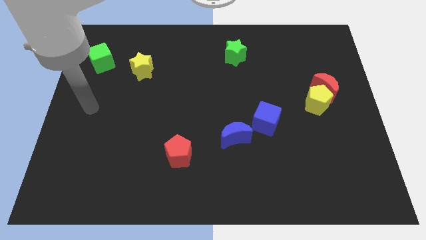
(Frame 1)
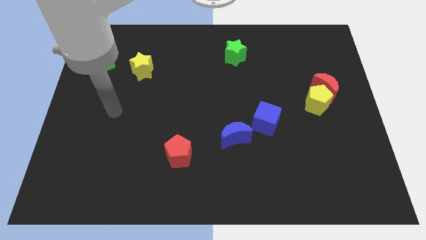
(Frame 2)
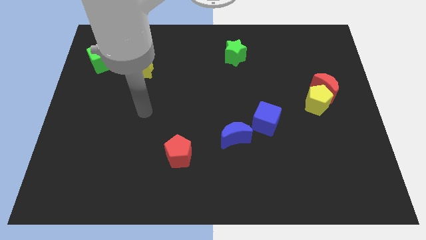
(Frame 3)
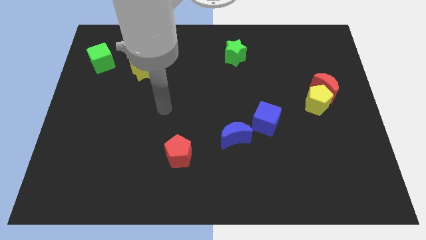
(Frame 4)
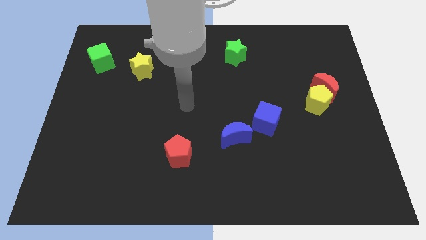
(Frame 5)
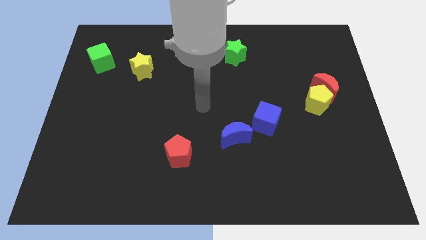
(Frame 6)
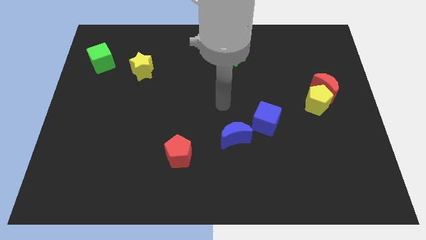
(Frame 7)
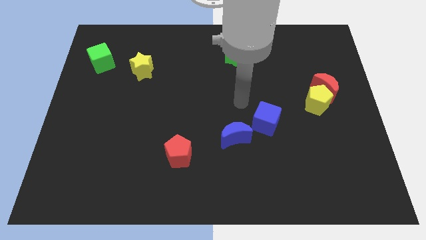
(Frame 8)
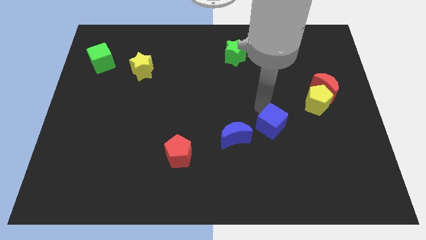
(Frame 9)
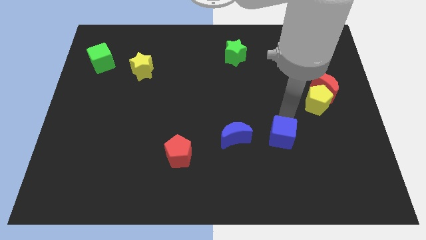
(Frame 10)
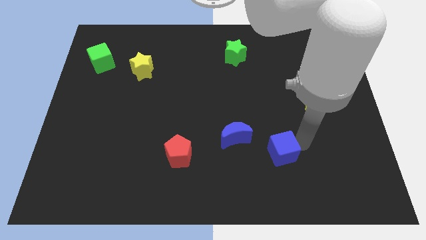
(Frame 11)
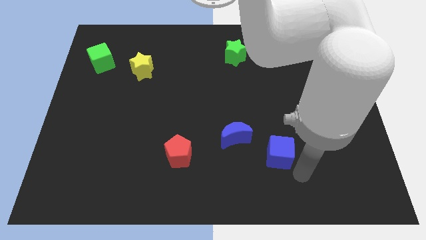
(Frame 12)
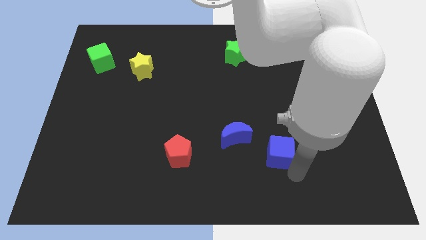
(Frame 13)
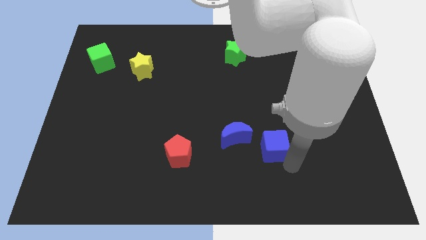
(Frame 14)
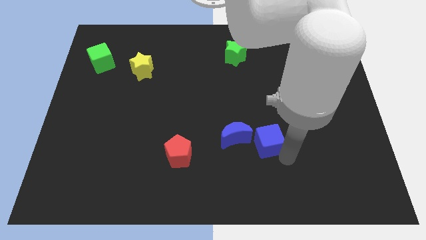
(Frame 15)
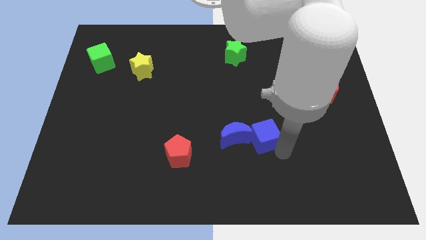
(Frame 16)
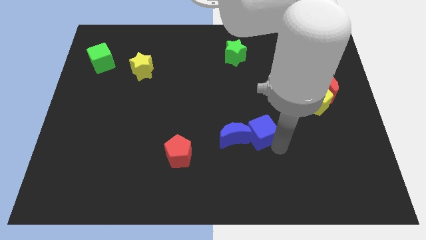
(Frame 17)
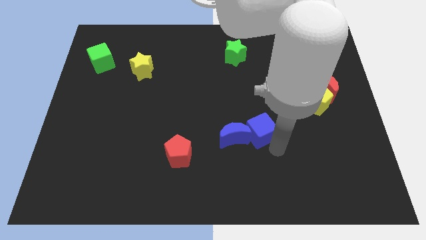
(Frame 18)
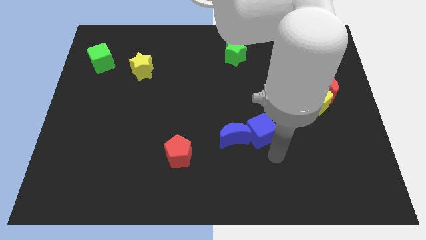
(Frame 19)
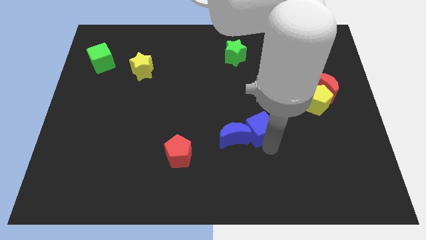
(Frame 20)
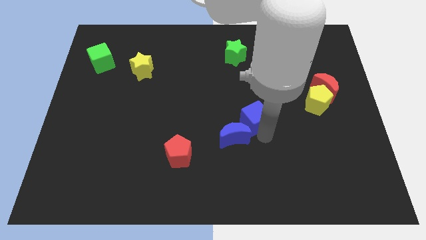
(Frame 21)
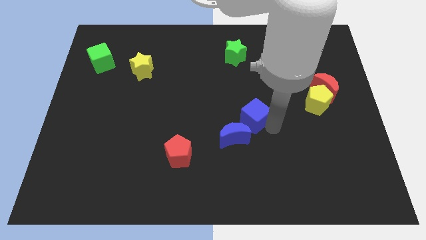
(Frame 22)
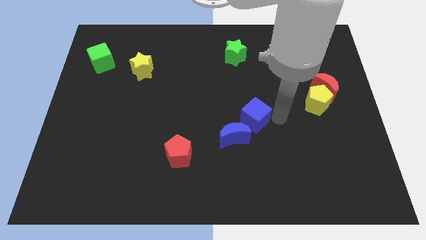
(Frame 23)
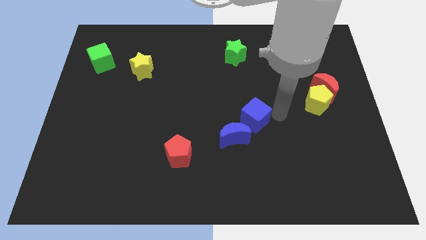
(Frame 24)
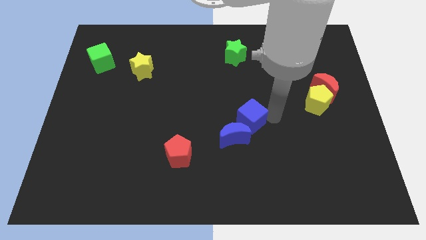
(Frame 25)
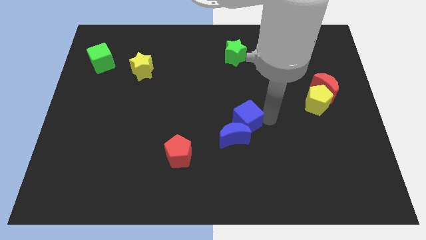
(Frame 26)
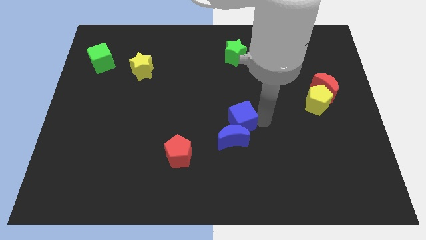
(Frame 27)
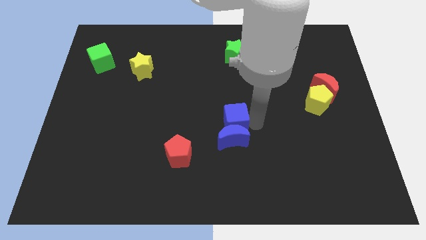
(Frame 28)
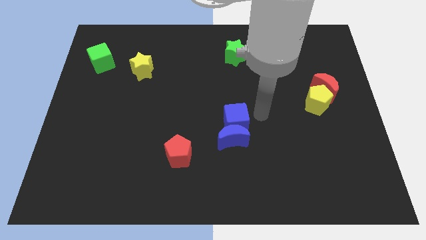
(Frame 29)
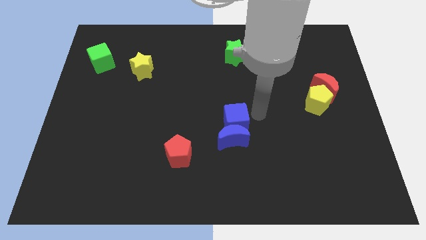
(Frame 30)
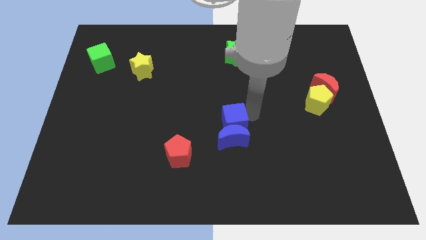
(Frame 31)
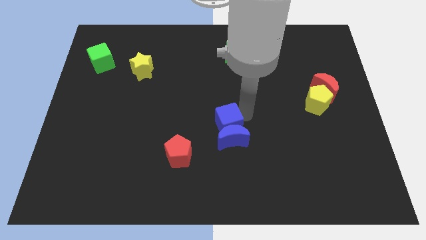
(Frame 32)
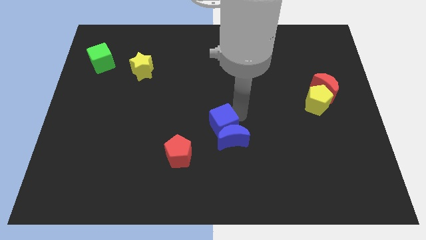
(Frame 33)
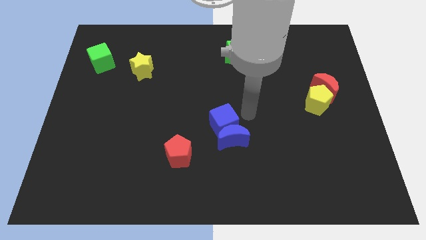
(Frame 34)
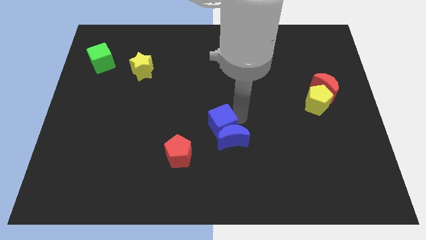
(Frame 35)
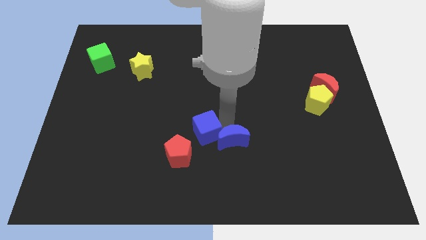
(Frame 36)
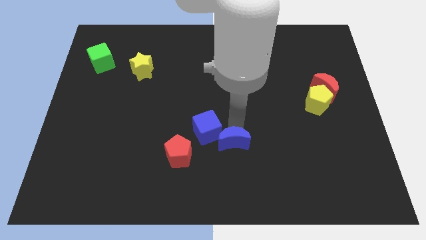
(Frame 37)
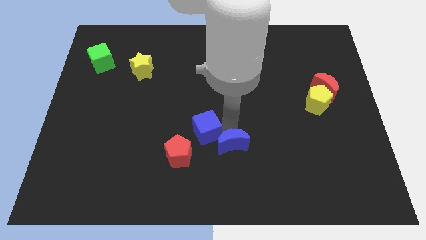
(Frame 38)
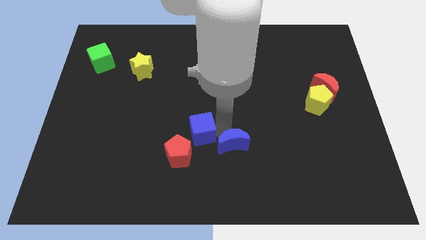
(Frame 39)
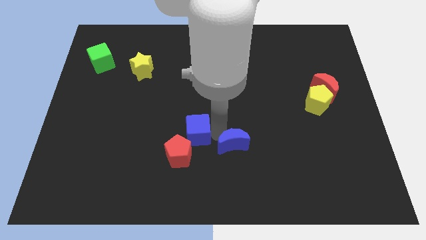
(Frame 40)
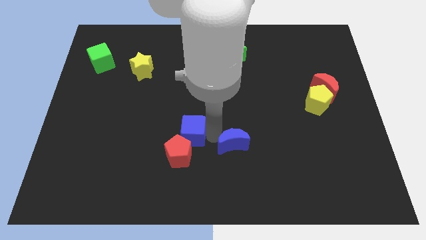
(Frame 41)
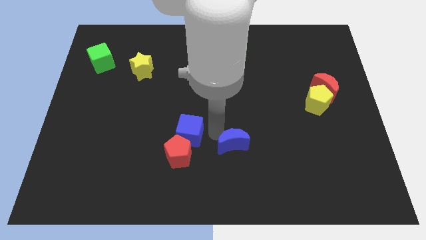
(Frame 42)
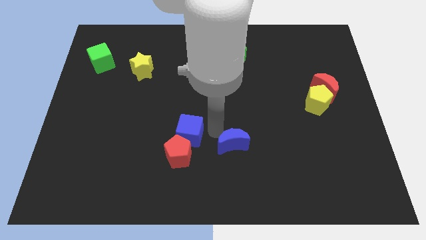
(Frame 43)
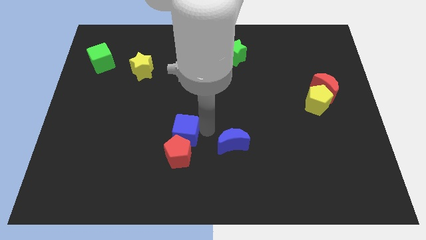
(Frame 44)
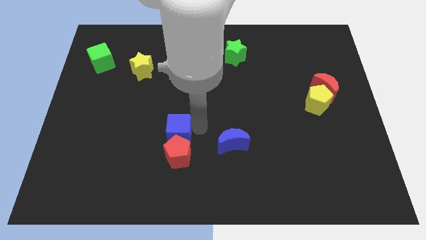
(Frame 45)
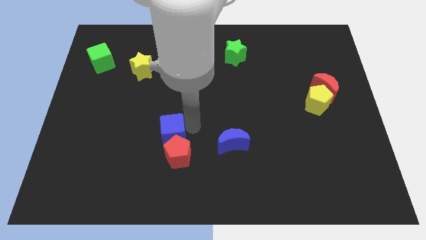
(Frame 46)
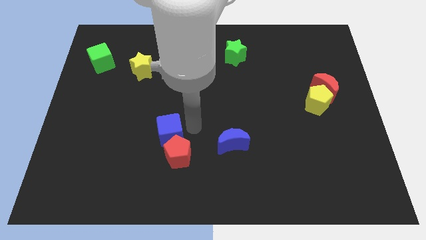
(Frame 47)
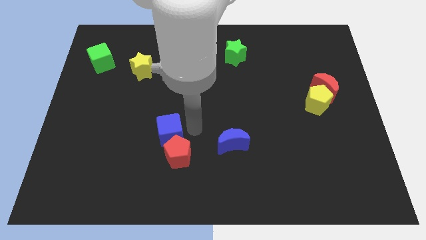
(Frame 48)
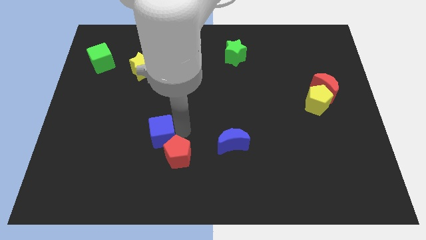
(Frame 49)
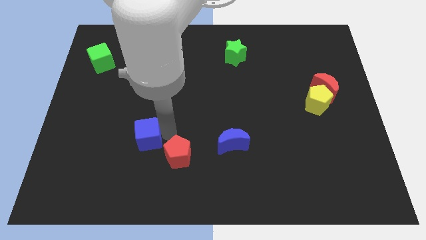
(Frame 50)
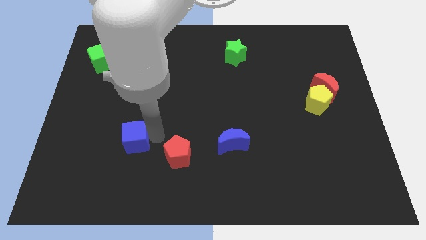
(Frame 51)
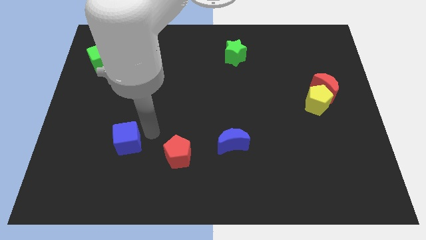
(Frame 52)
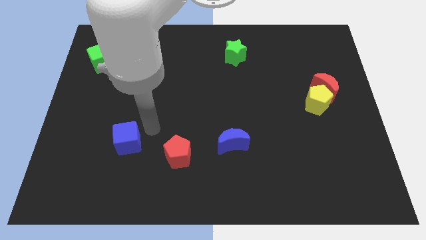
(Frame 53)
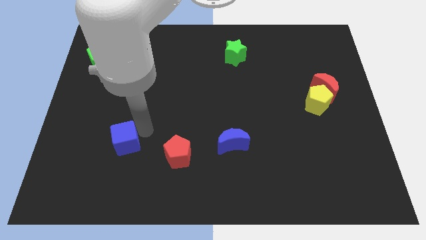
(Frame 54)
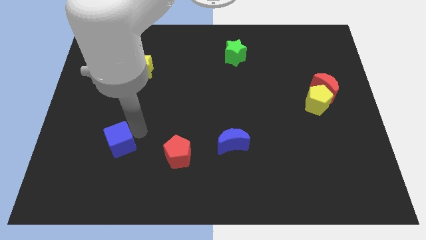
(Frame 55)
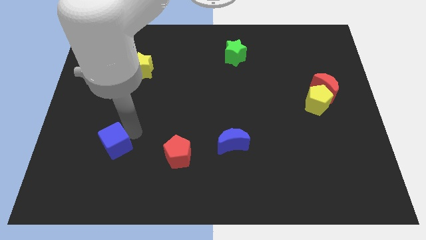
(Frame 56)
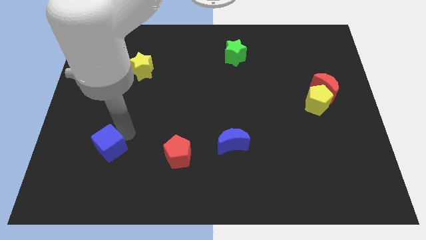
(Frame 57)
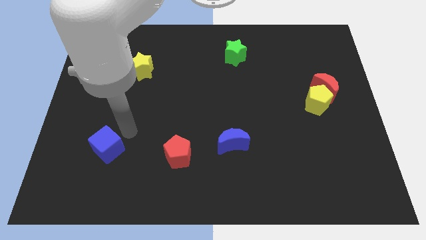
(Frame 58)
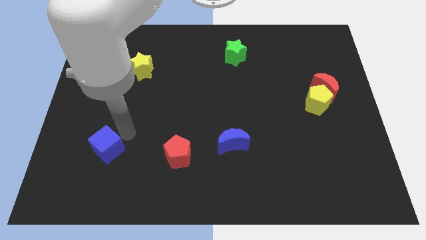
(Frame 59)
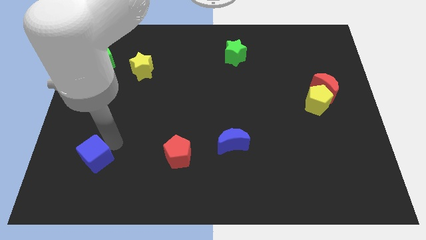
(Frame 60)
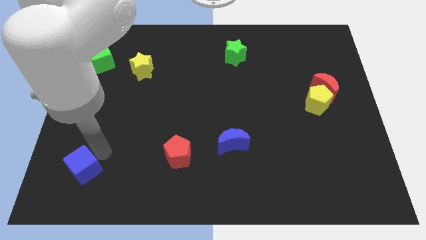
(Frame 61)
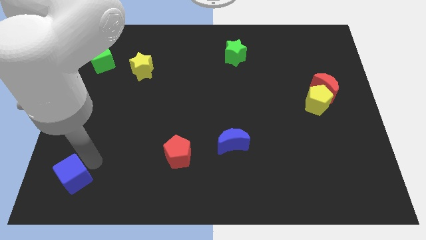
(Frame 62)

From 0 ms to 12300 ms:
slide the blue cube to the lower left corner
